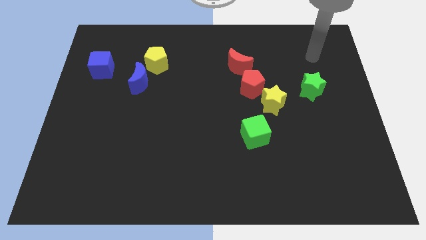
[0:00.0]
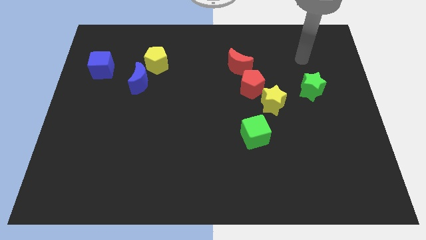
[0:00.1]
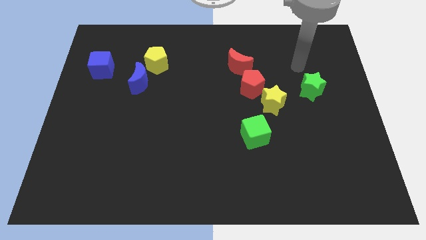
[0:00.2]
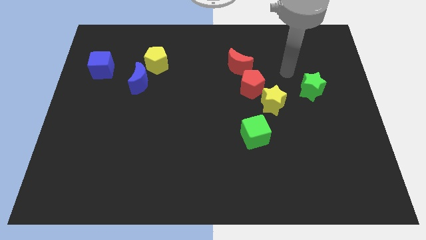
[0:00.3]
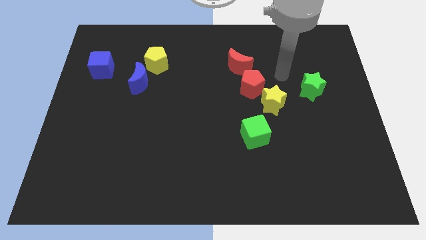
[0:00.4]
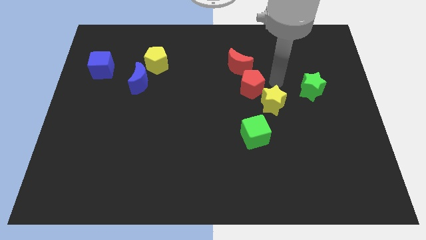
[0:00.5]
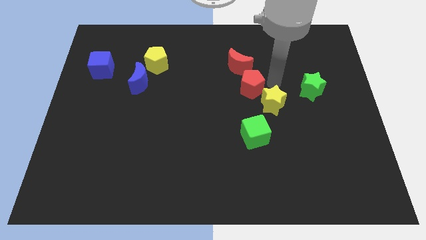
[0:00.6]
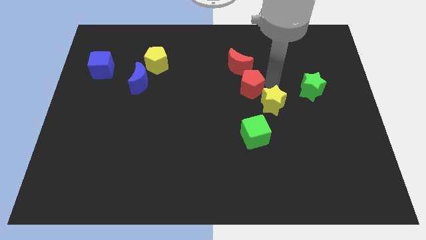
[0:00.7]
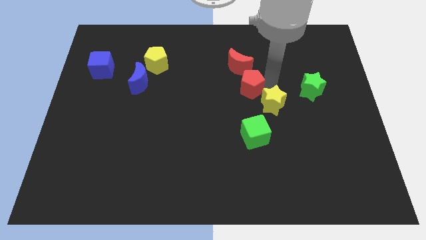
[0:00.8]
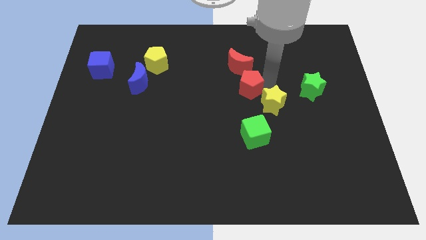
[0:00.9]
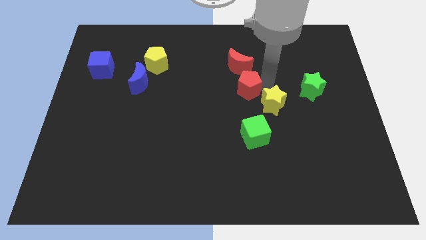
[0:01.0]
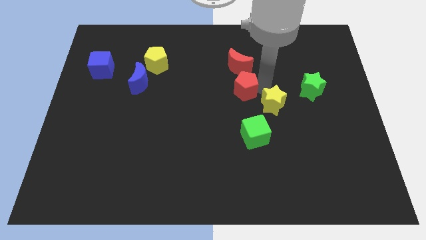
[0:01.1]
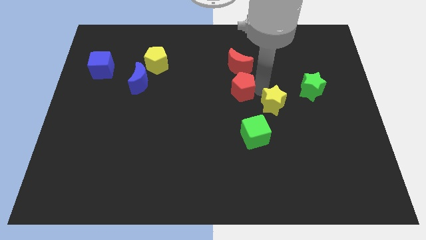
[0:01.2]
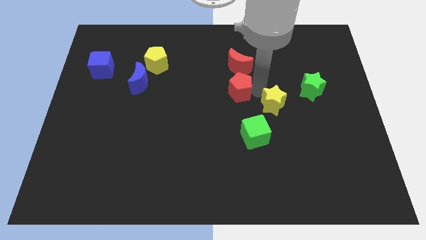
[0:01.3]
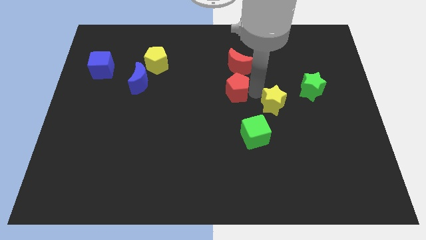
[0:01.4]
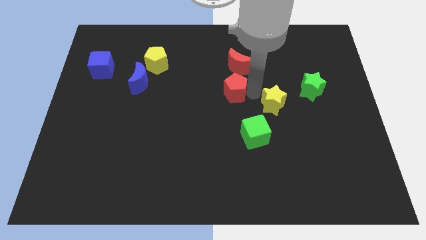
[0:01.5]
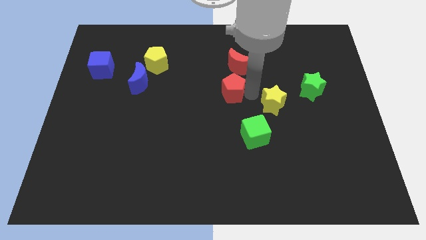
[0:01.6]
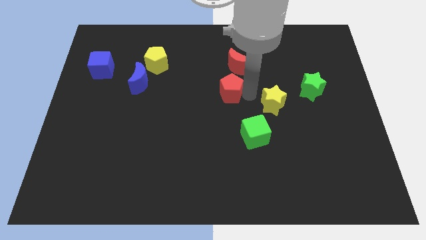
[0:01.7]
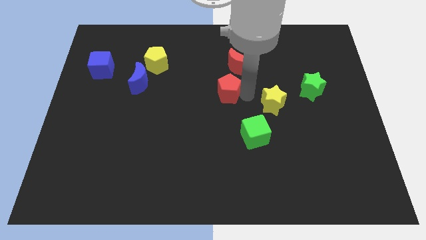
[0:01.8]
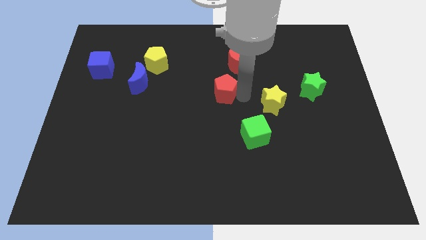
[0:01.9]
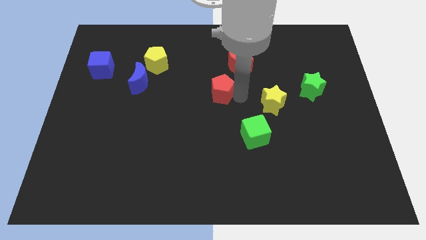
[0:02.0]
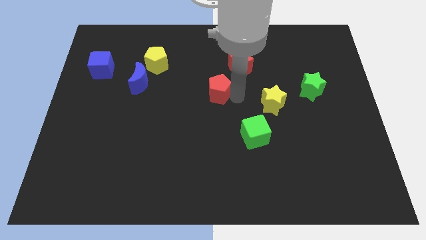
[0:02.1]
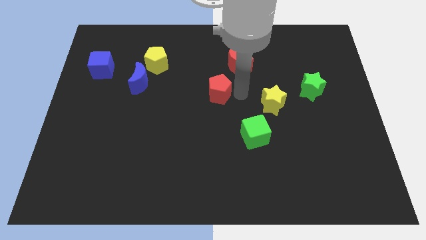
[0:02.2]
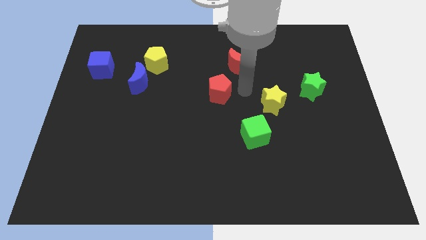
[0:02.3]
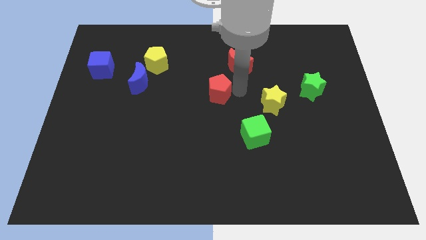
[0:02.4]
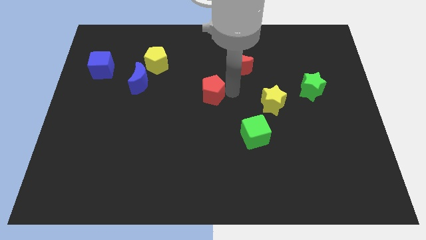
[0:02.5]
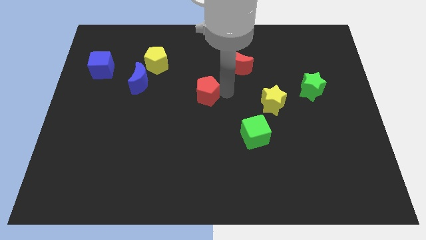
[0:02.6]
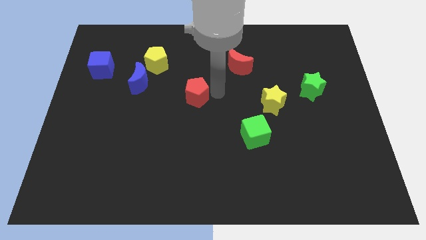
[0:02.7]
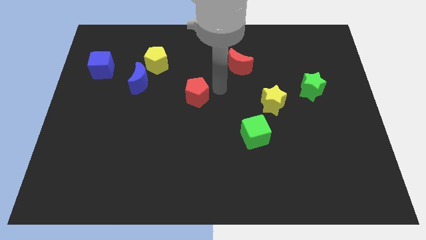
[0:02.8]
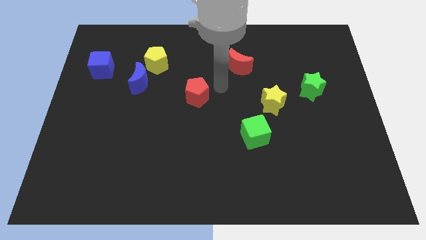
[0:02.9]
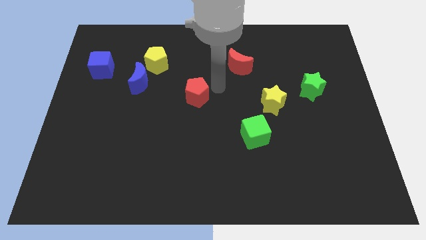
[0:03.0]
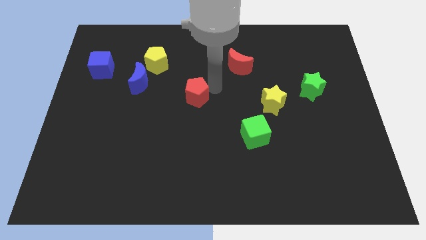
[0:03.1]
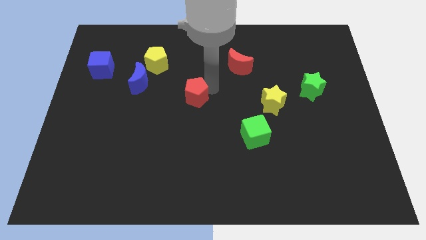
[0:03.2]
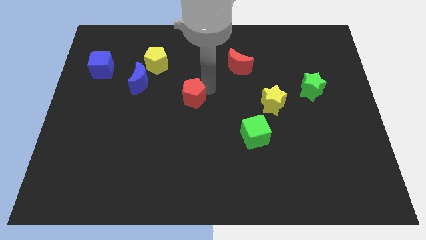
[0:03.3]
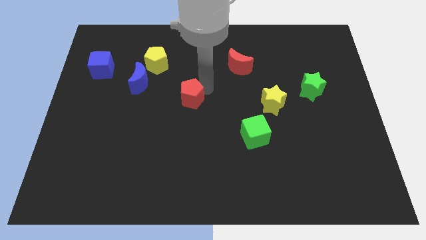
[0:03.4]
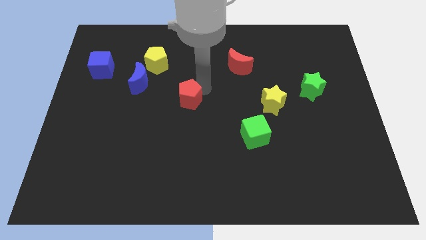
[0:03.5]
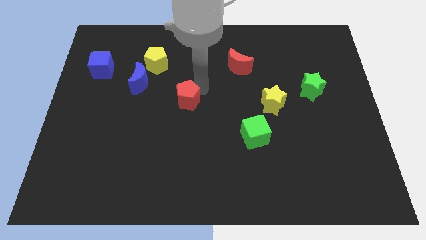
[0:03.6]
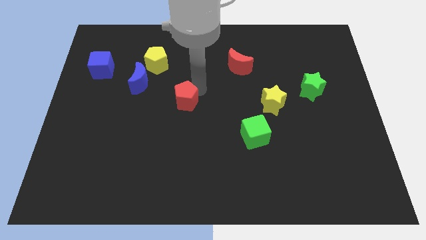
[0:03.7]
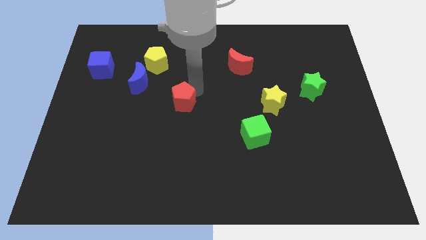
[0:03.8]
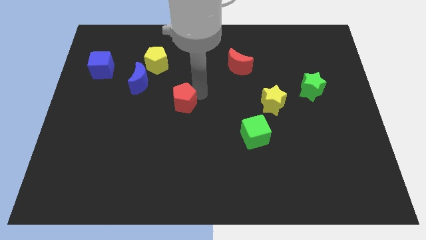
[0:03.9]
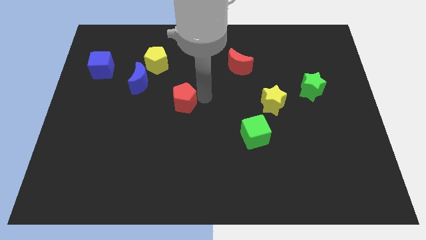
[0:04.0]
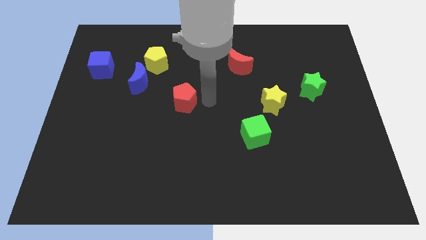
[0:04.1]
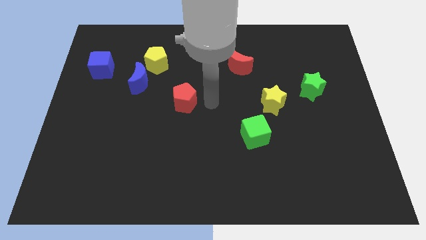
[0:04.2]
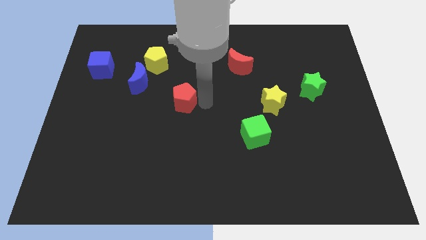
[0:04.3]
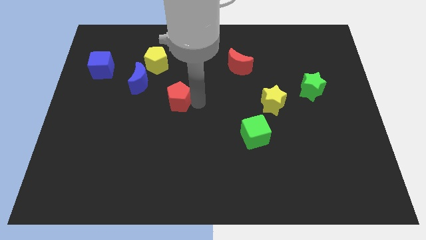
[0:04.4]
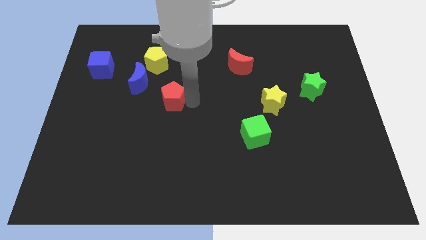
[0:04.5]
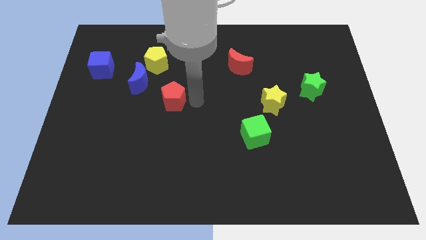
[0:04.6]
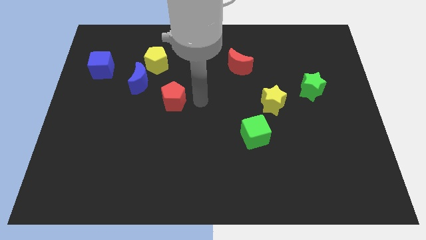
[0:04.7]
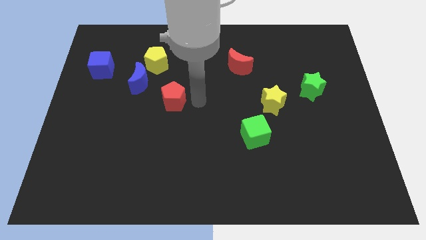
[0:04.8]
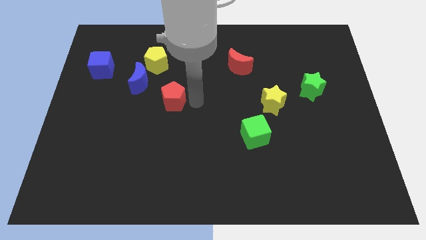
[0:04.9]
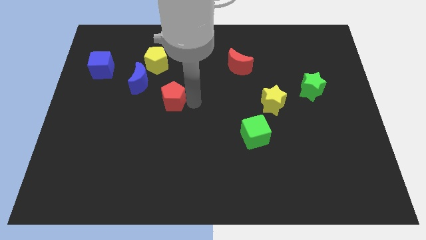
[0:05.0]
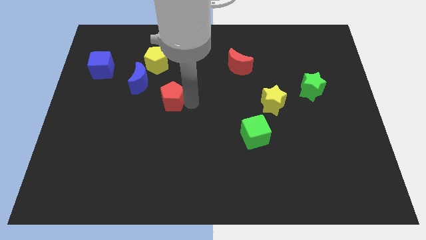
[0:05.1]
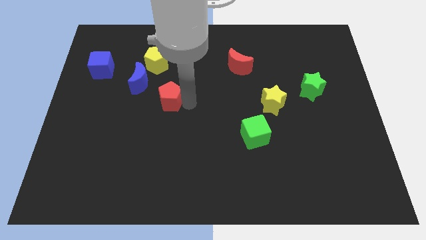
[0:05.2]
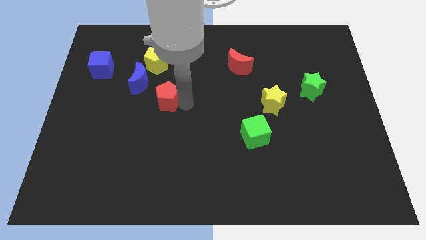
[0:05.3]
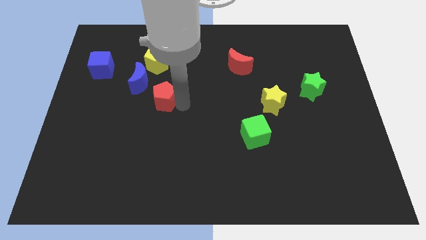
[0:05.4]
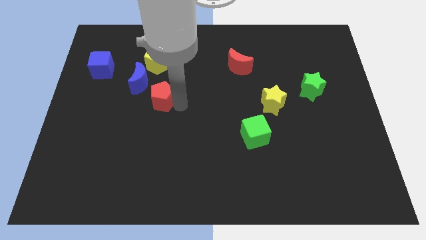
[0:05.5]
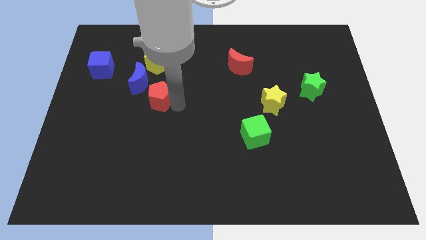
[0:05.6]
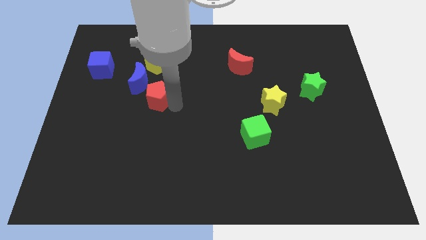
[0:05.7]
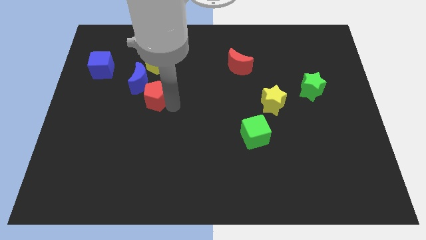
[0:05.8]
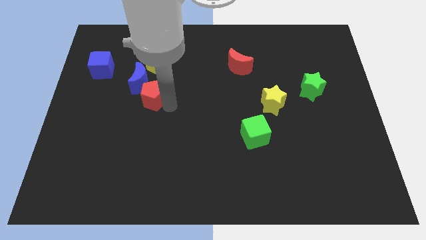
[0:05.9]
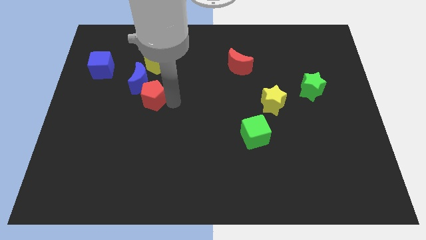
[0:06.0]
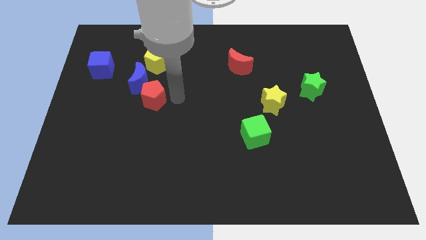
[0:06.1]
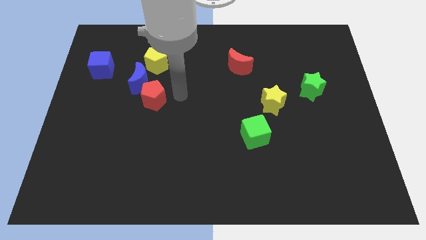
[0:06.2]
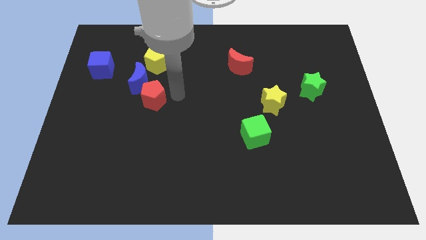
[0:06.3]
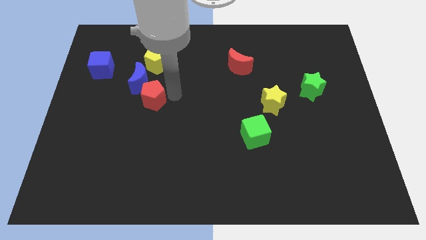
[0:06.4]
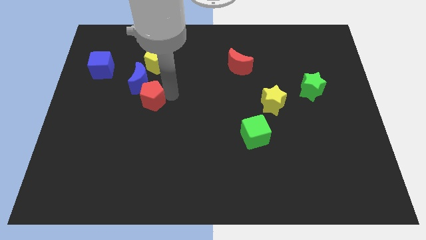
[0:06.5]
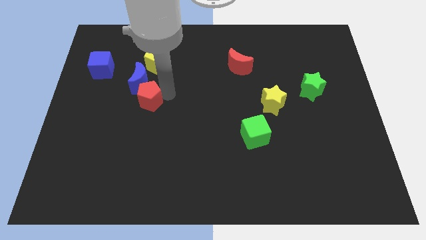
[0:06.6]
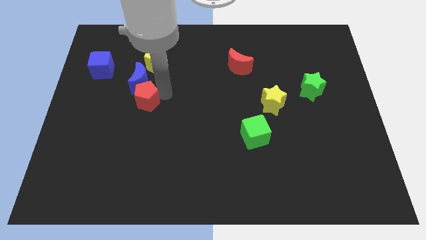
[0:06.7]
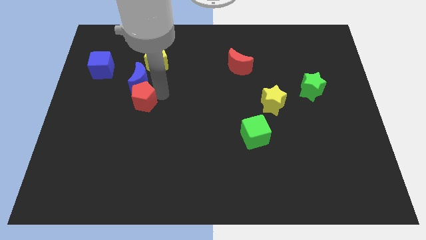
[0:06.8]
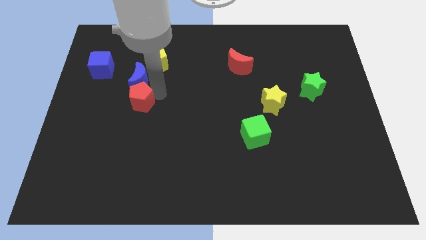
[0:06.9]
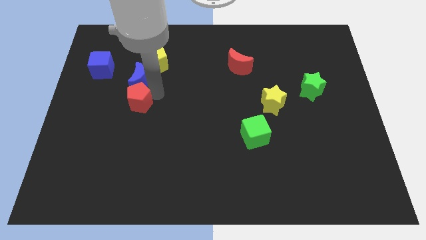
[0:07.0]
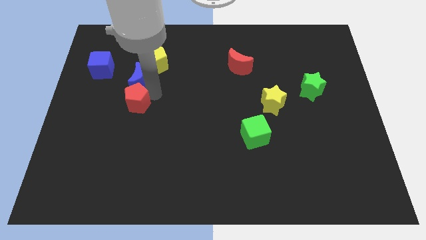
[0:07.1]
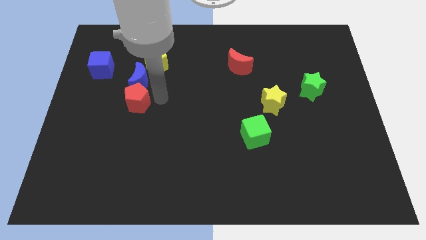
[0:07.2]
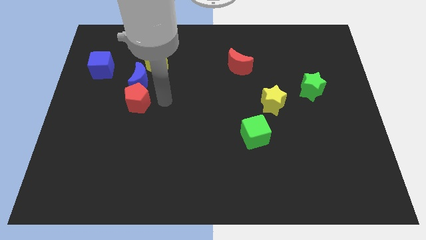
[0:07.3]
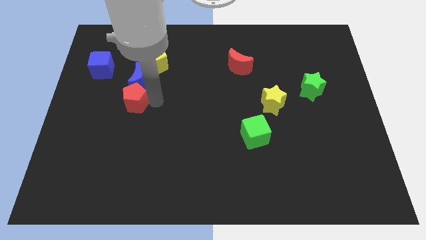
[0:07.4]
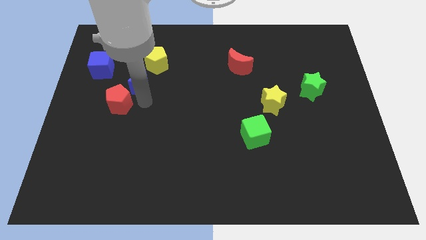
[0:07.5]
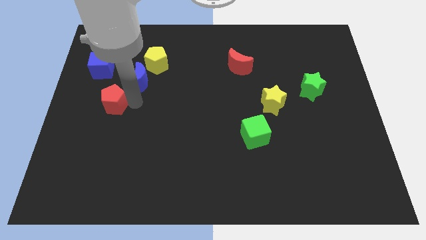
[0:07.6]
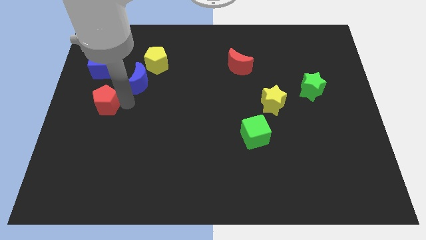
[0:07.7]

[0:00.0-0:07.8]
put the red pentagon to the left side of the board
